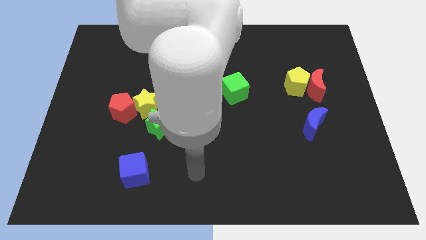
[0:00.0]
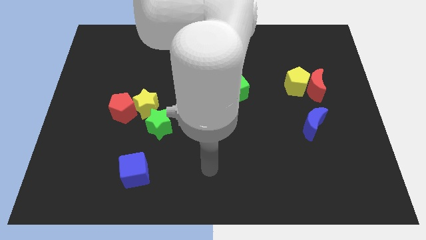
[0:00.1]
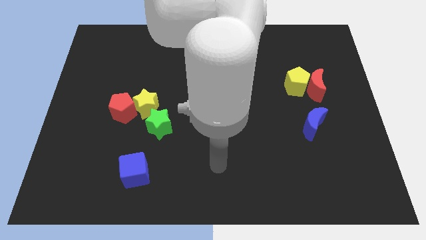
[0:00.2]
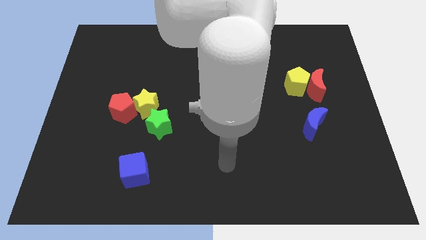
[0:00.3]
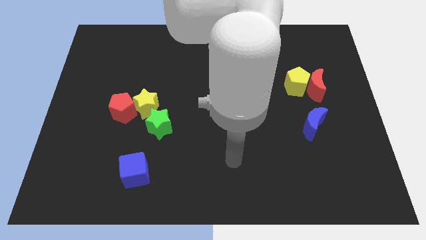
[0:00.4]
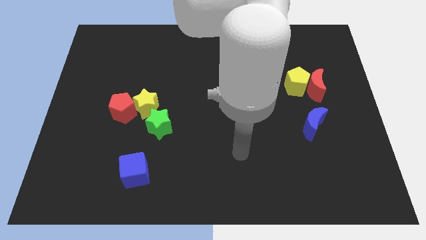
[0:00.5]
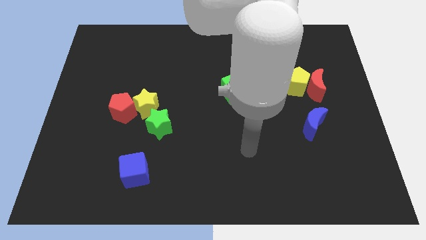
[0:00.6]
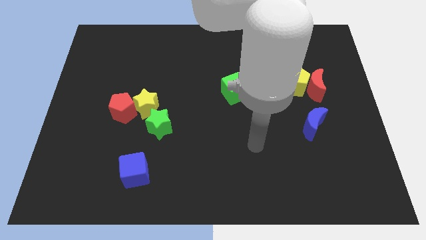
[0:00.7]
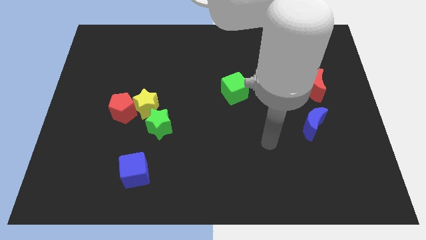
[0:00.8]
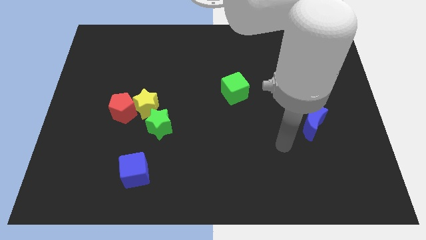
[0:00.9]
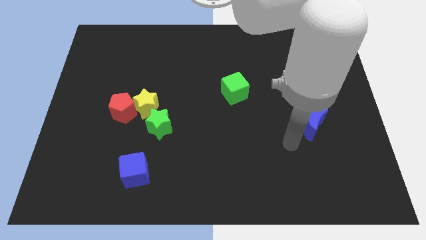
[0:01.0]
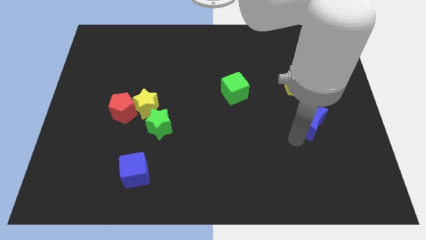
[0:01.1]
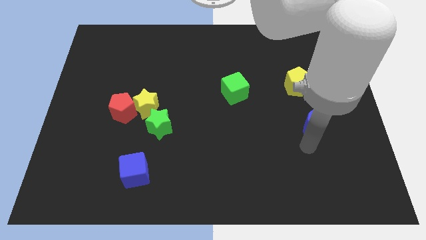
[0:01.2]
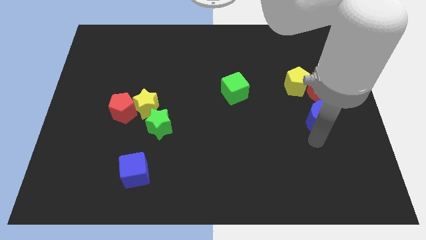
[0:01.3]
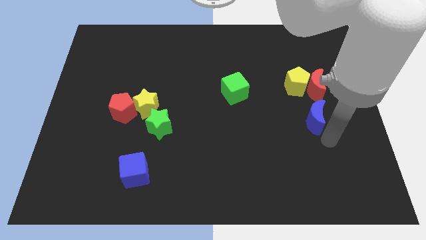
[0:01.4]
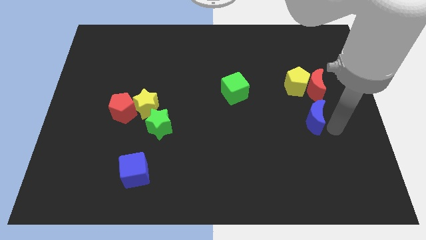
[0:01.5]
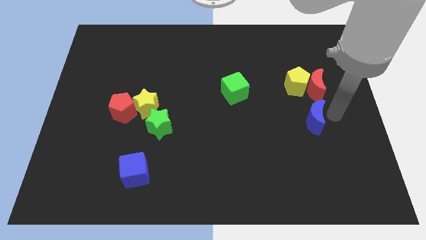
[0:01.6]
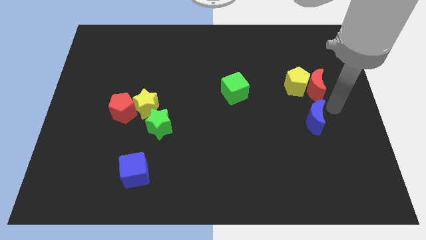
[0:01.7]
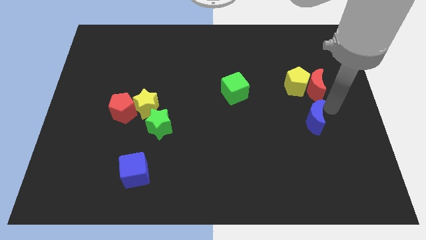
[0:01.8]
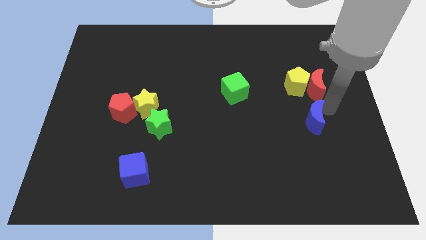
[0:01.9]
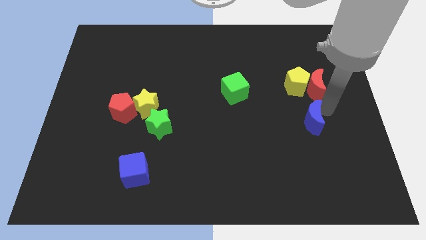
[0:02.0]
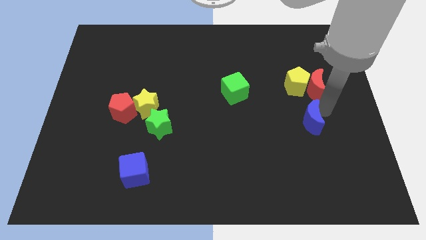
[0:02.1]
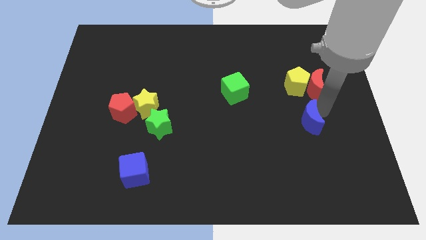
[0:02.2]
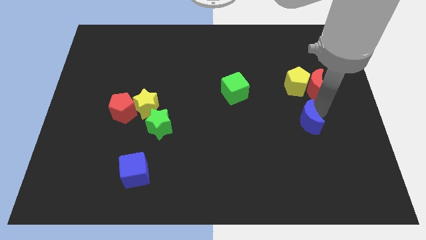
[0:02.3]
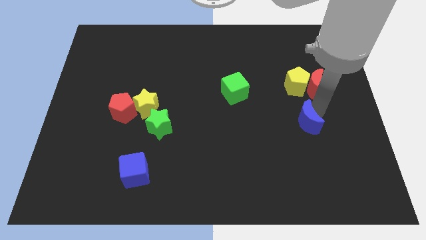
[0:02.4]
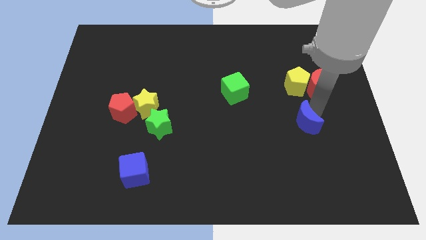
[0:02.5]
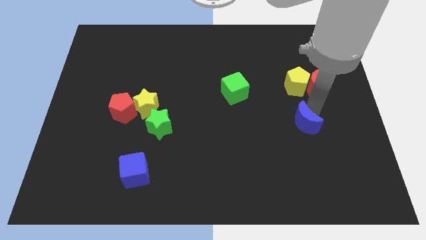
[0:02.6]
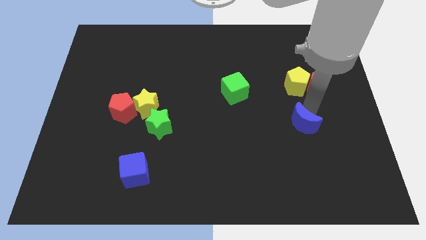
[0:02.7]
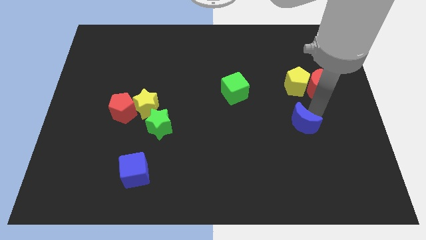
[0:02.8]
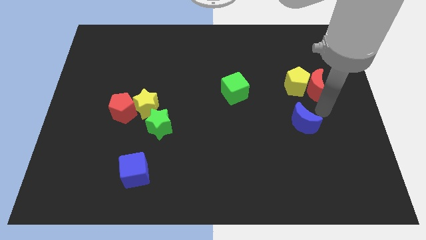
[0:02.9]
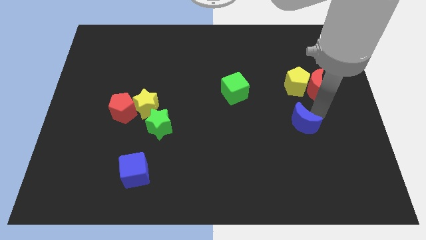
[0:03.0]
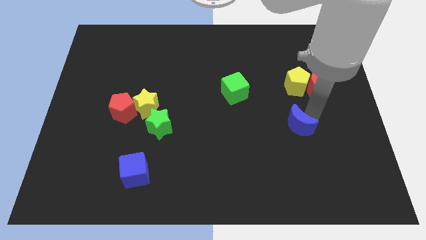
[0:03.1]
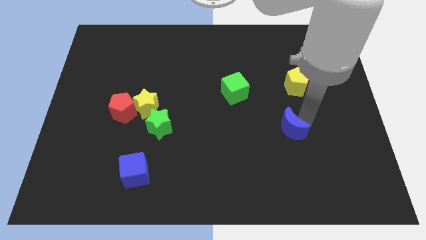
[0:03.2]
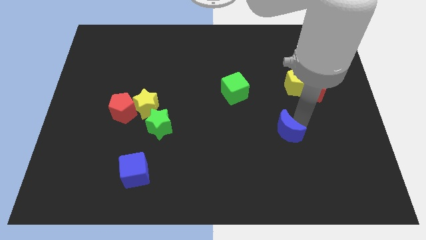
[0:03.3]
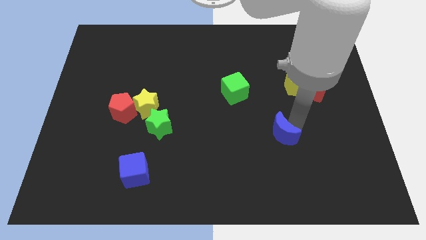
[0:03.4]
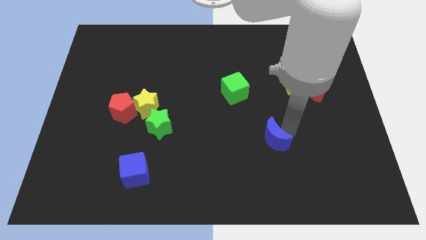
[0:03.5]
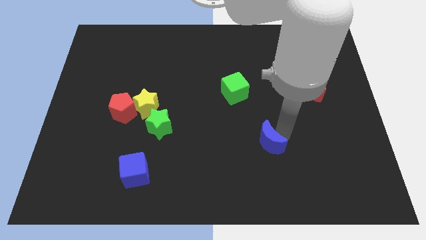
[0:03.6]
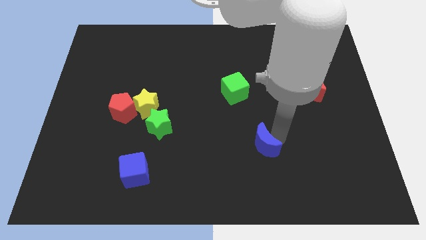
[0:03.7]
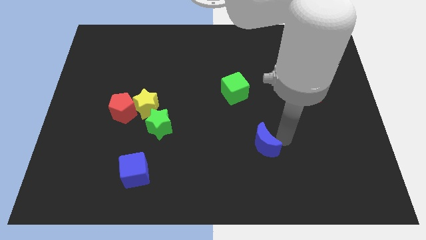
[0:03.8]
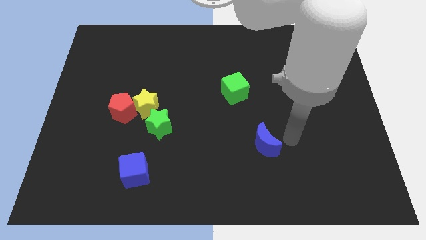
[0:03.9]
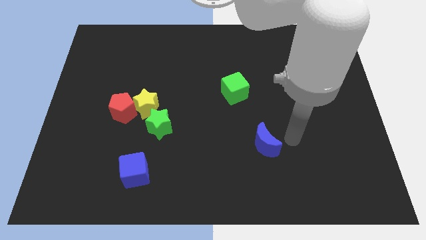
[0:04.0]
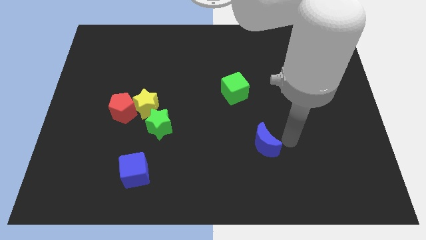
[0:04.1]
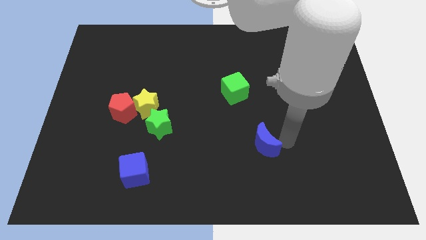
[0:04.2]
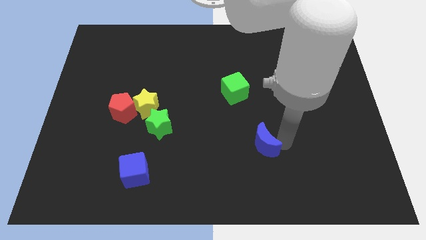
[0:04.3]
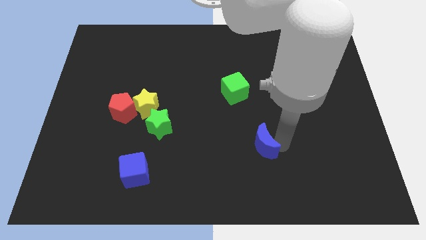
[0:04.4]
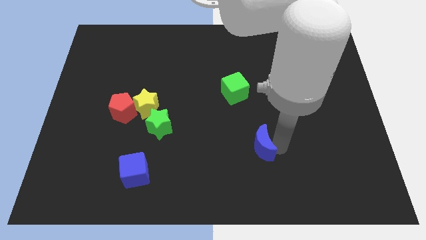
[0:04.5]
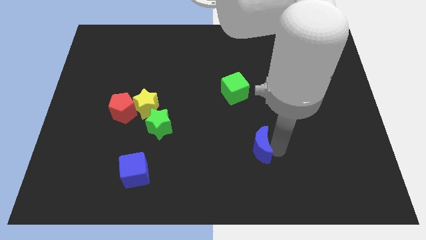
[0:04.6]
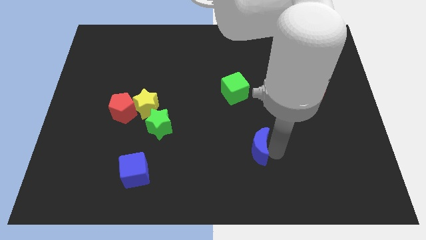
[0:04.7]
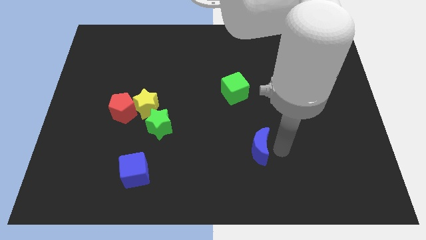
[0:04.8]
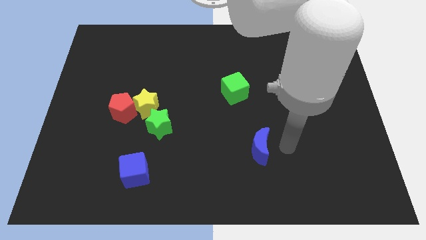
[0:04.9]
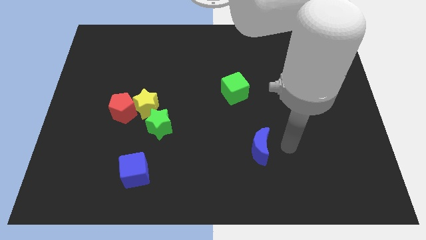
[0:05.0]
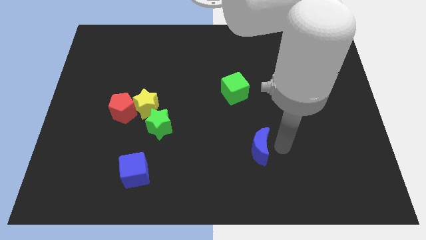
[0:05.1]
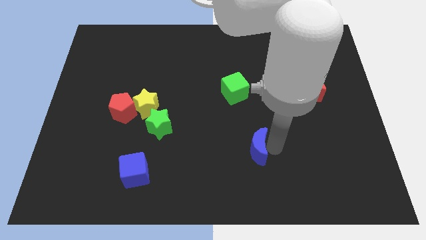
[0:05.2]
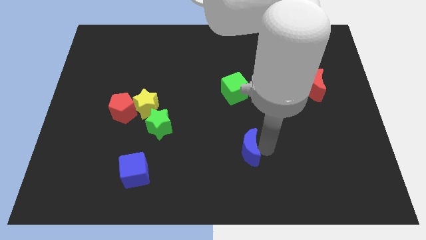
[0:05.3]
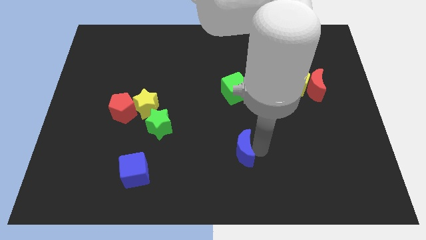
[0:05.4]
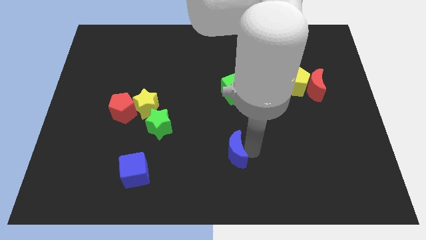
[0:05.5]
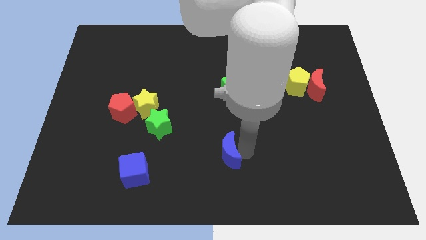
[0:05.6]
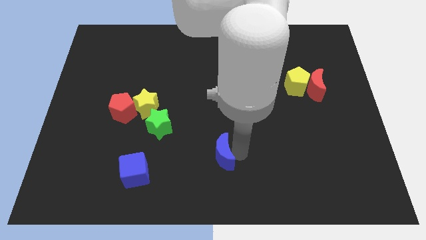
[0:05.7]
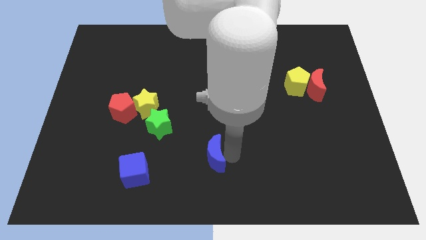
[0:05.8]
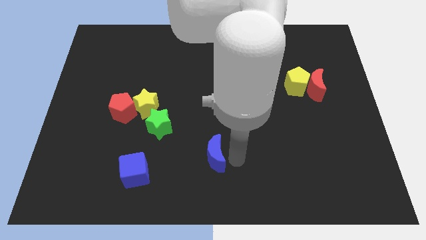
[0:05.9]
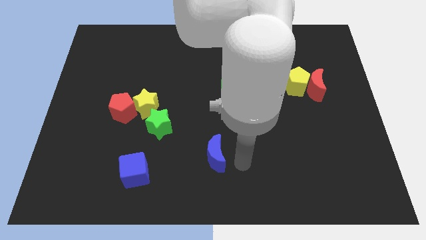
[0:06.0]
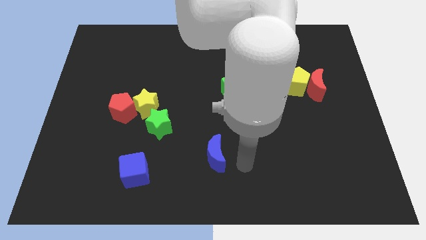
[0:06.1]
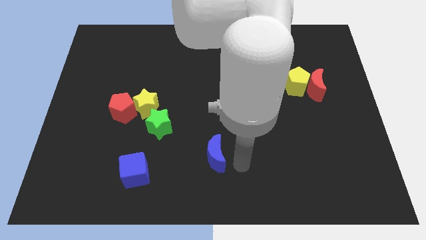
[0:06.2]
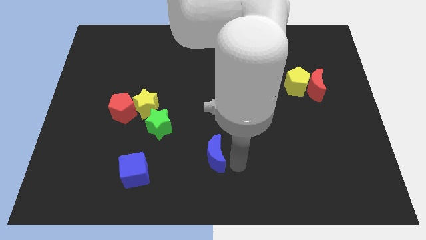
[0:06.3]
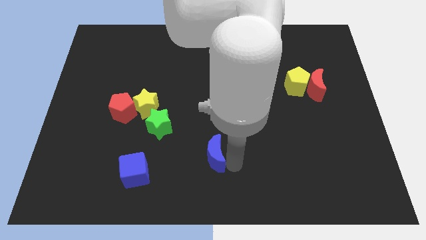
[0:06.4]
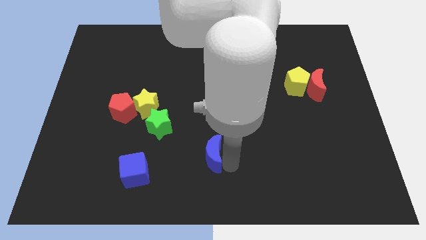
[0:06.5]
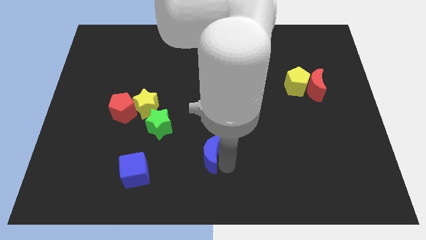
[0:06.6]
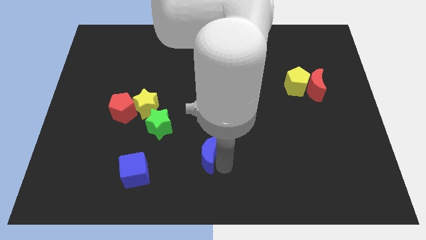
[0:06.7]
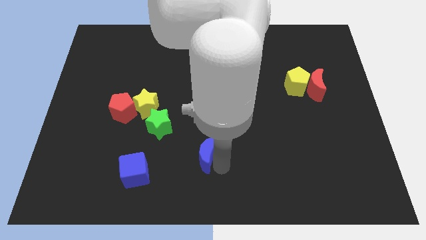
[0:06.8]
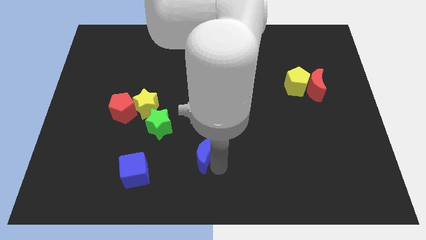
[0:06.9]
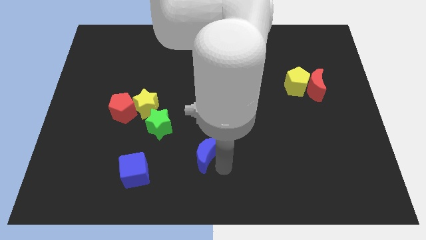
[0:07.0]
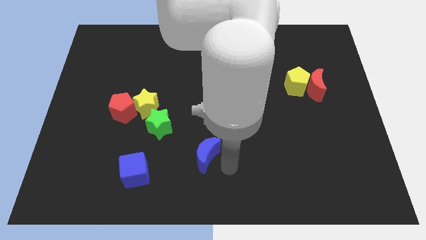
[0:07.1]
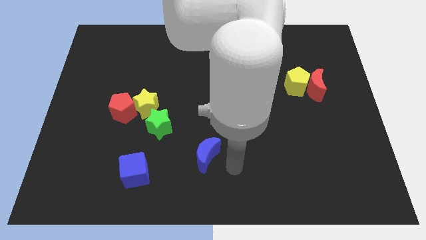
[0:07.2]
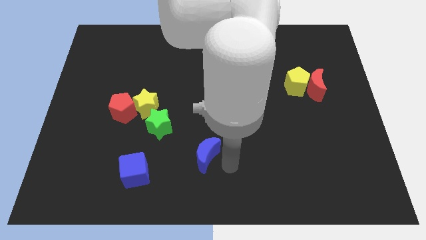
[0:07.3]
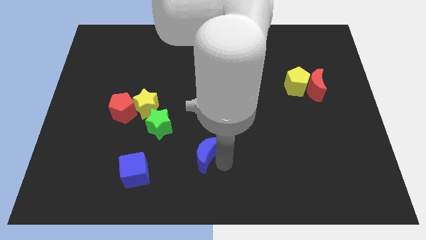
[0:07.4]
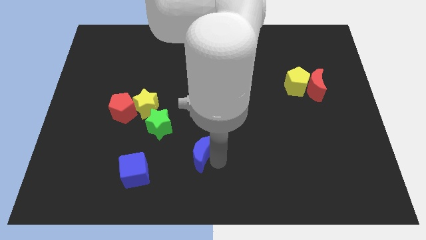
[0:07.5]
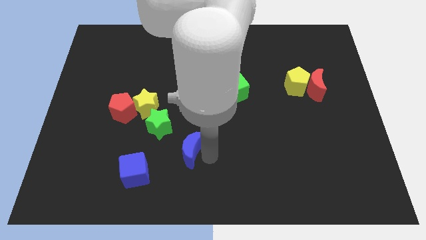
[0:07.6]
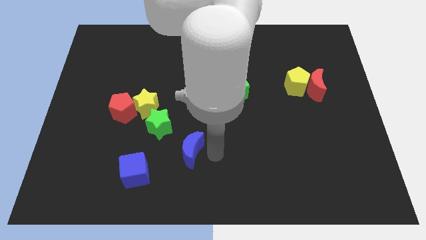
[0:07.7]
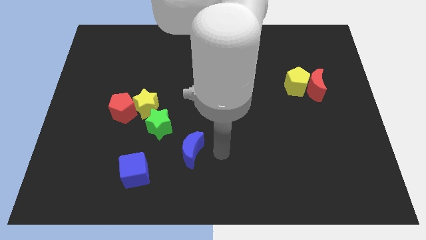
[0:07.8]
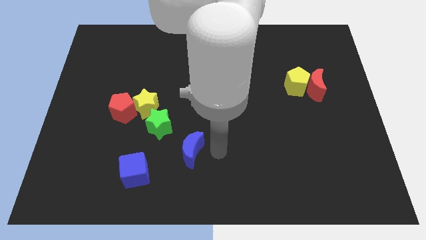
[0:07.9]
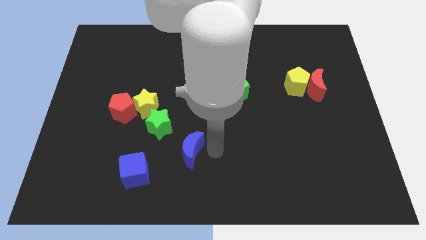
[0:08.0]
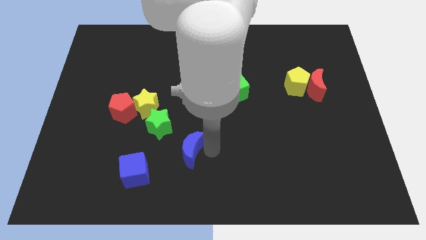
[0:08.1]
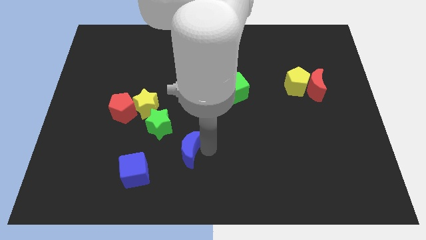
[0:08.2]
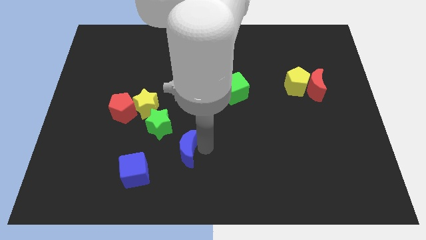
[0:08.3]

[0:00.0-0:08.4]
slide the blue moon diagonally up and to the right of the blue cube
